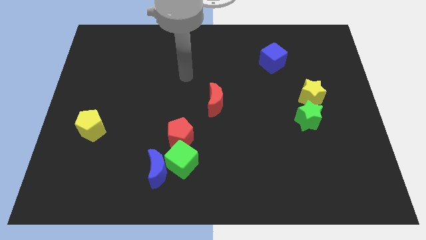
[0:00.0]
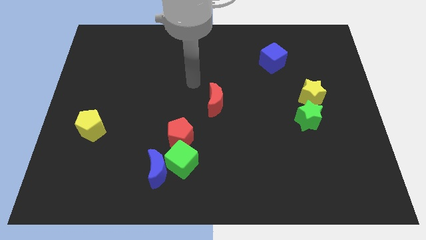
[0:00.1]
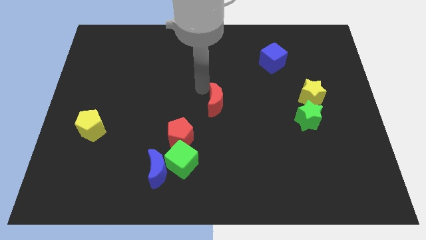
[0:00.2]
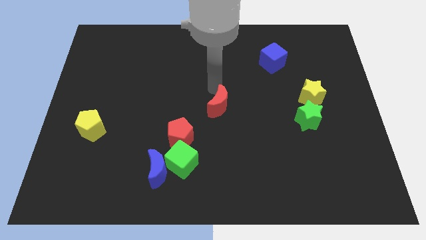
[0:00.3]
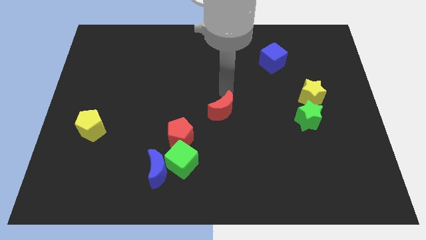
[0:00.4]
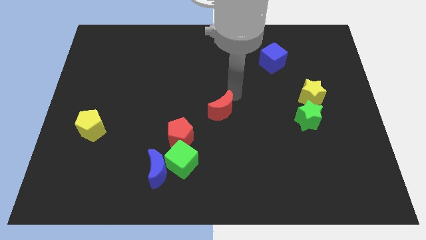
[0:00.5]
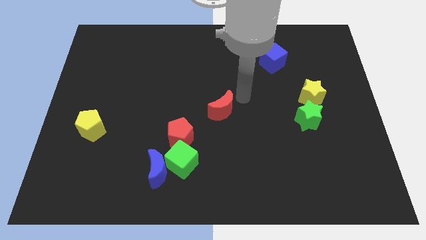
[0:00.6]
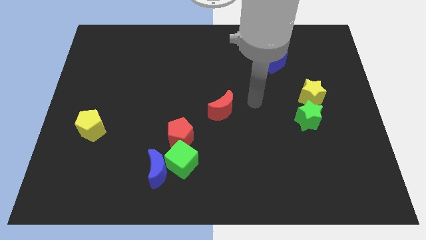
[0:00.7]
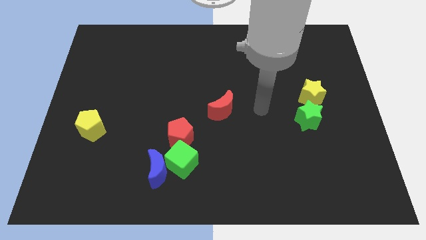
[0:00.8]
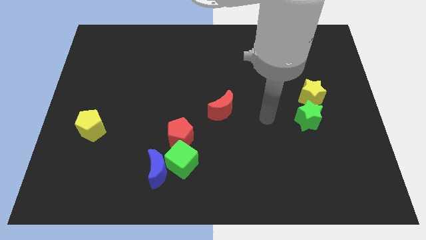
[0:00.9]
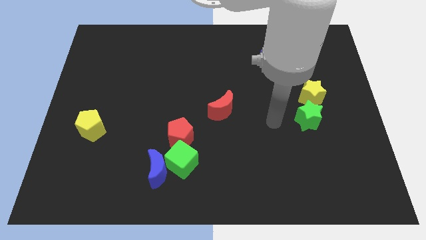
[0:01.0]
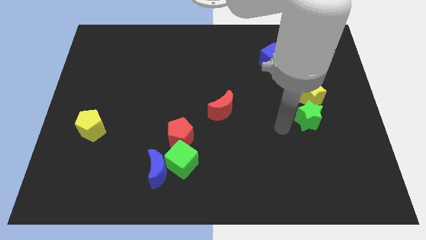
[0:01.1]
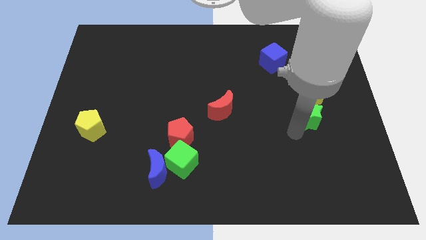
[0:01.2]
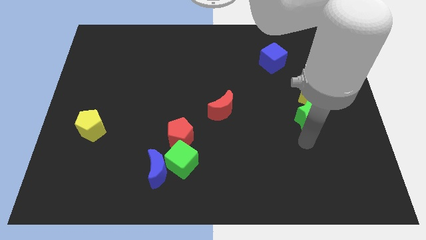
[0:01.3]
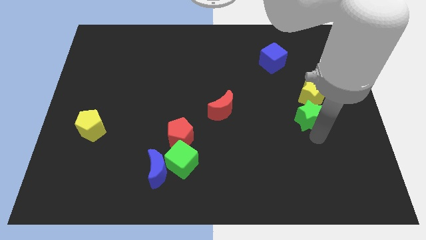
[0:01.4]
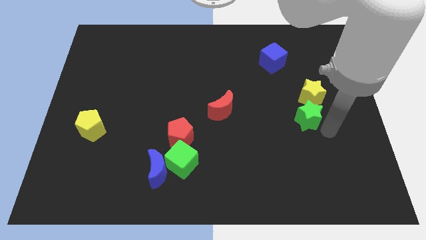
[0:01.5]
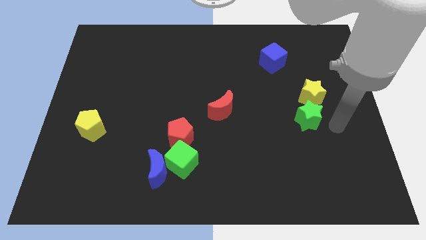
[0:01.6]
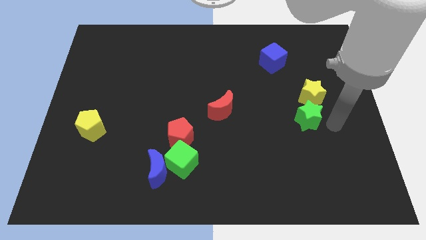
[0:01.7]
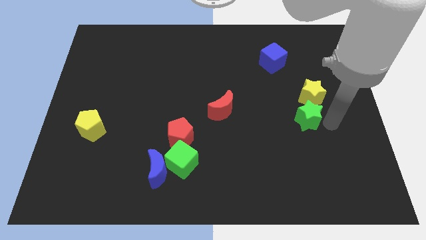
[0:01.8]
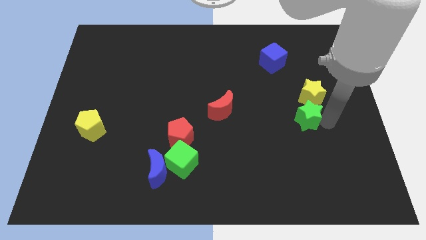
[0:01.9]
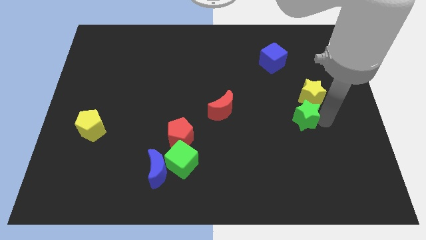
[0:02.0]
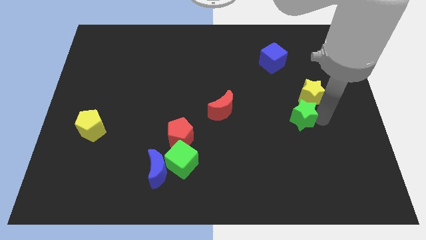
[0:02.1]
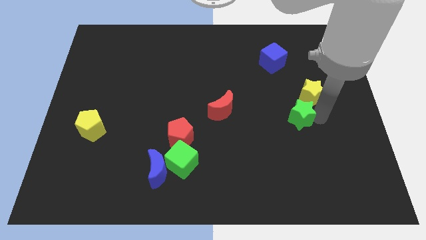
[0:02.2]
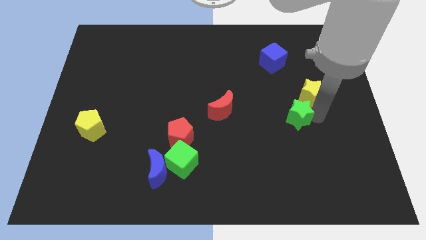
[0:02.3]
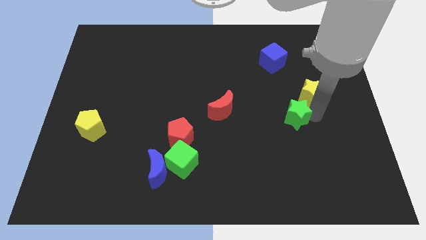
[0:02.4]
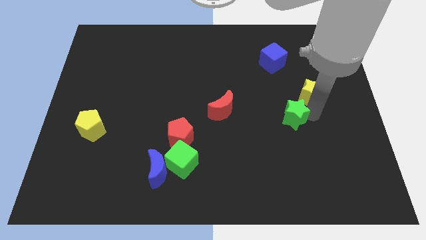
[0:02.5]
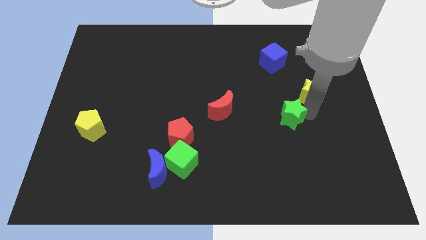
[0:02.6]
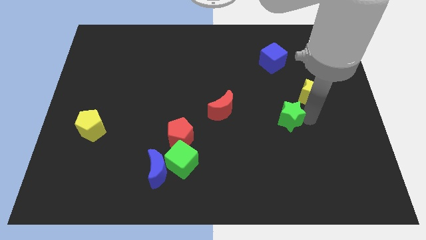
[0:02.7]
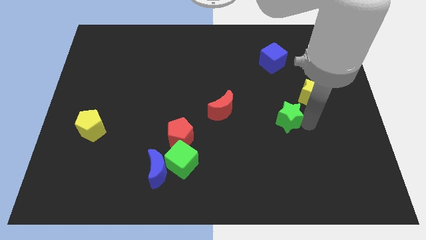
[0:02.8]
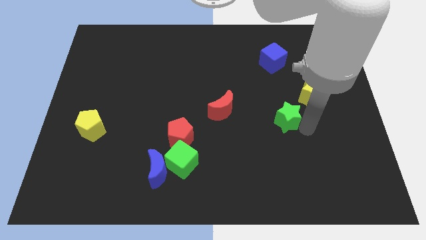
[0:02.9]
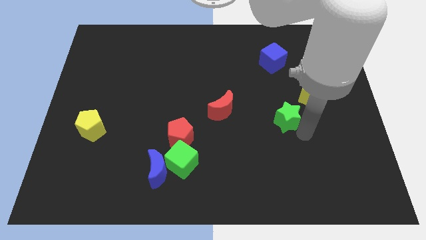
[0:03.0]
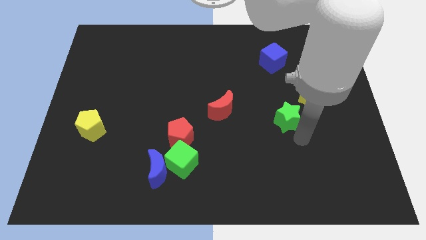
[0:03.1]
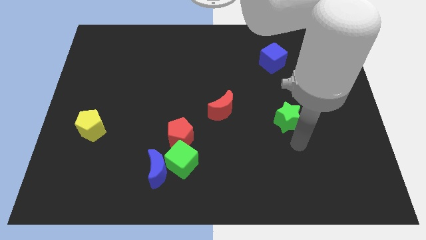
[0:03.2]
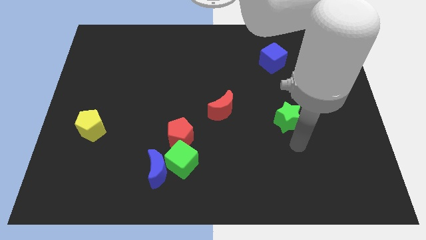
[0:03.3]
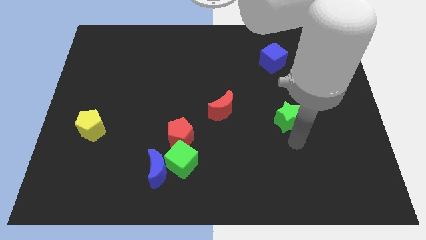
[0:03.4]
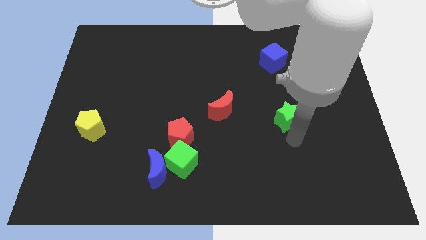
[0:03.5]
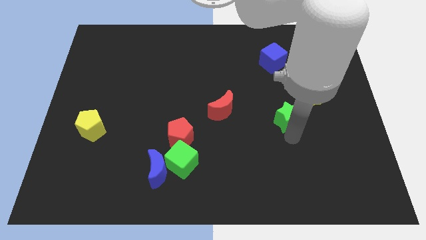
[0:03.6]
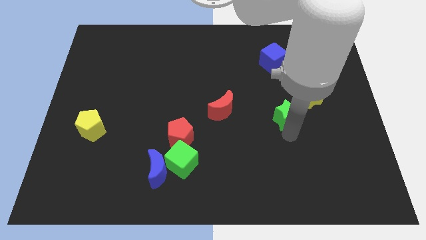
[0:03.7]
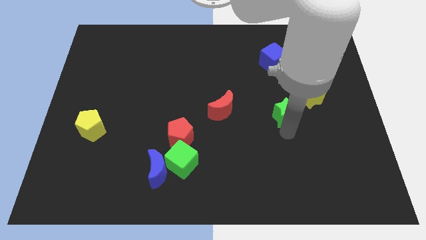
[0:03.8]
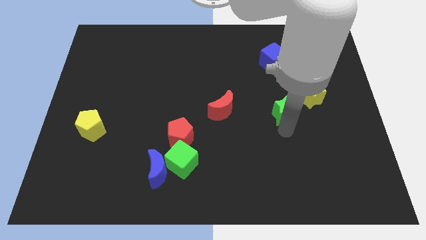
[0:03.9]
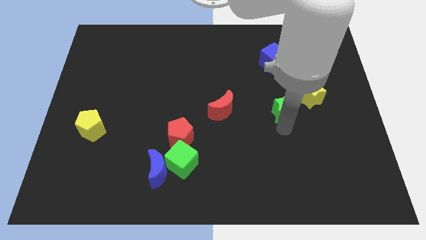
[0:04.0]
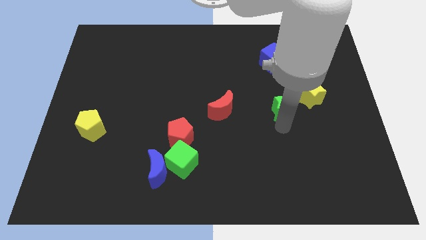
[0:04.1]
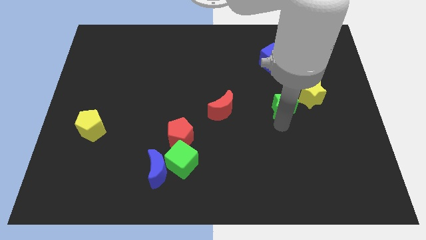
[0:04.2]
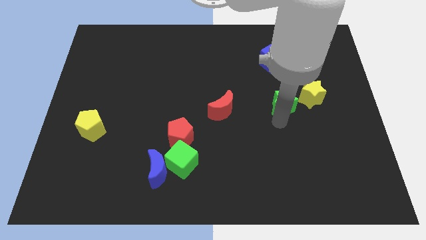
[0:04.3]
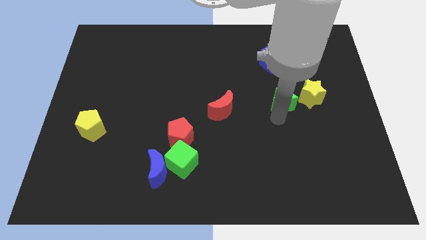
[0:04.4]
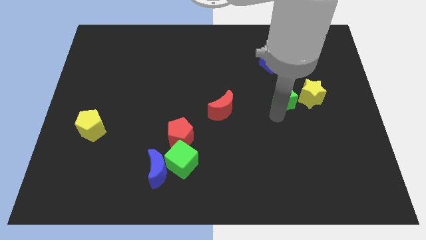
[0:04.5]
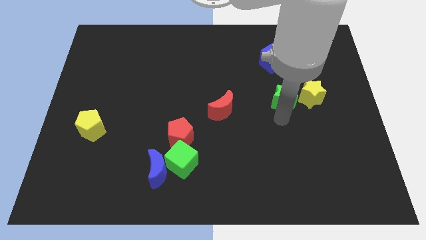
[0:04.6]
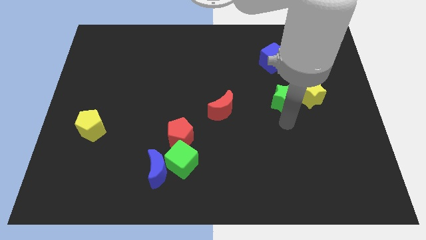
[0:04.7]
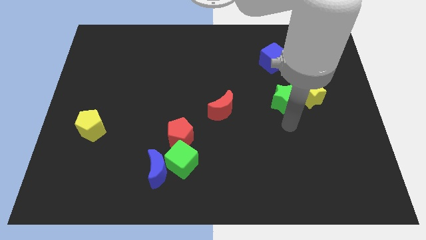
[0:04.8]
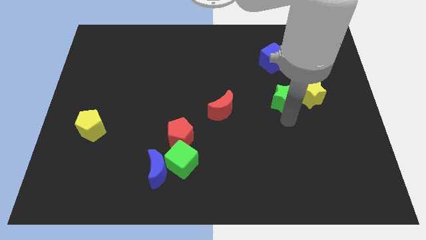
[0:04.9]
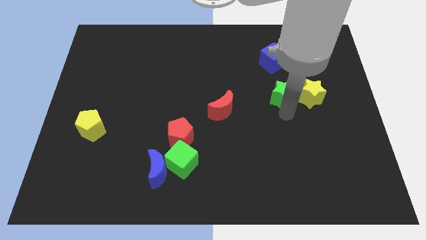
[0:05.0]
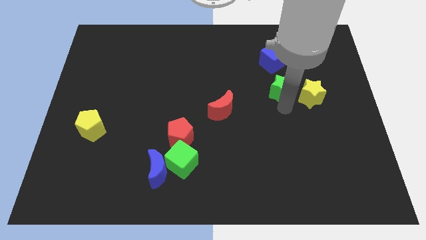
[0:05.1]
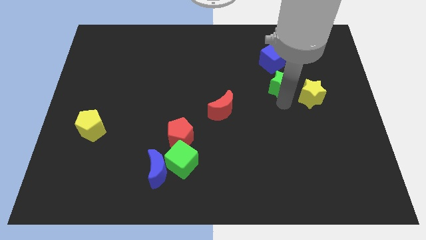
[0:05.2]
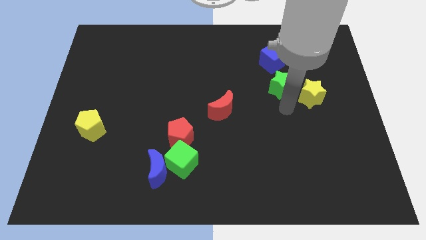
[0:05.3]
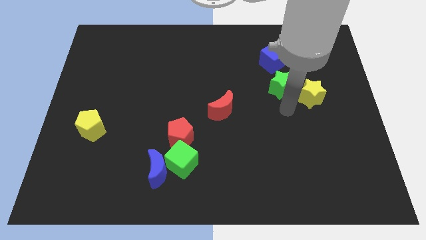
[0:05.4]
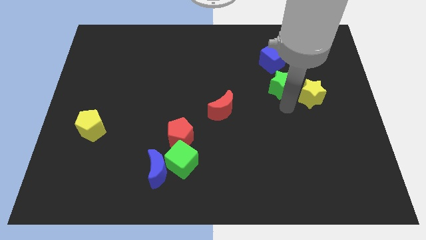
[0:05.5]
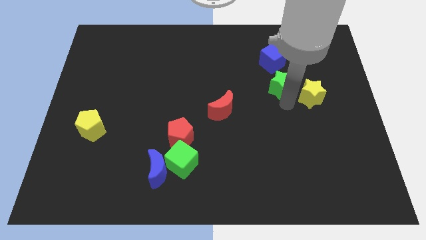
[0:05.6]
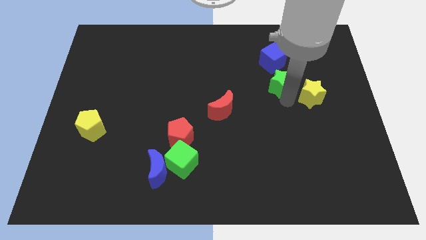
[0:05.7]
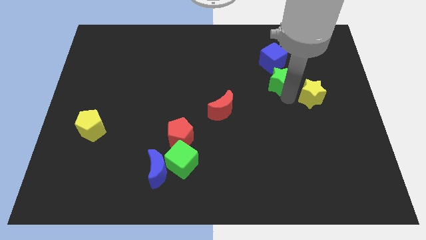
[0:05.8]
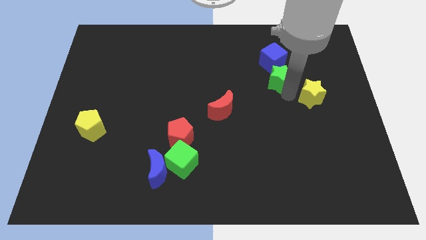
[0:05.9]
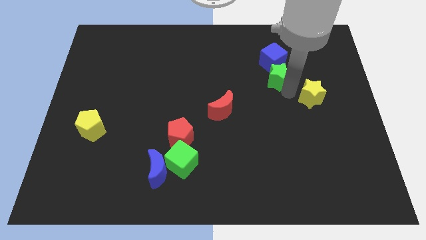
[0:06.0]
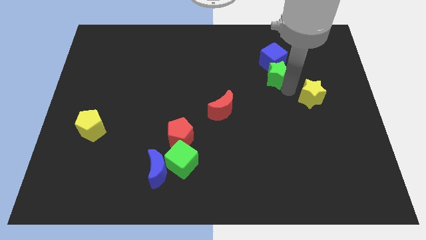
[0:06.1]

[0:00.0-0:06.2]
move the green star to the blue cube

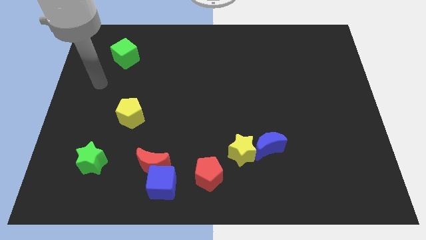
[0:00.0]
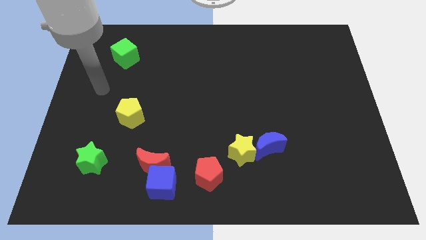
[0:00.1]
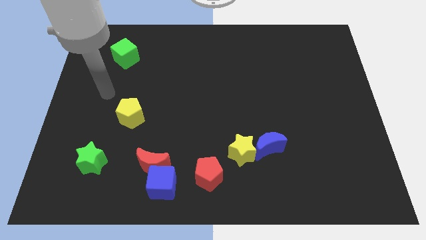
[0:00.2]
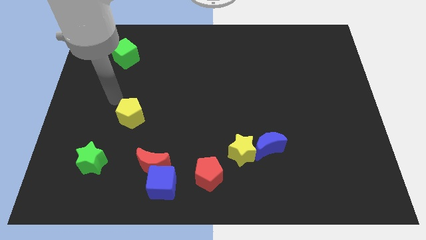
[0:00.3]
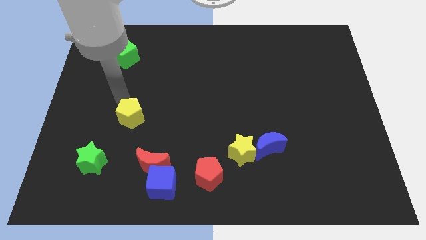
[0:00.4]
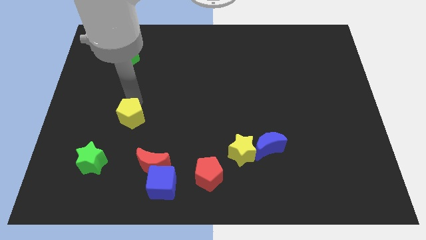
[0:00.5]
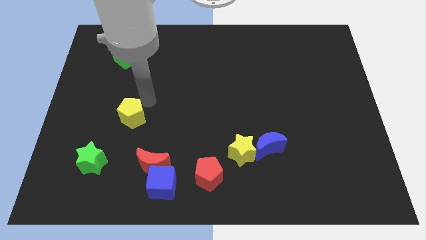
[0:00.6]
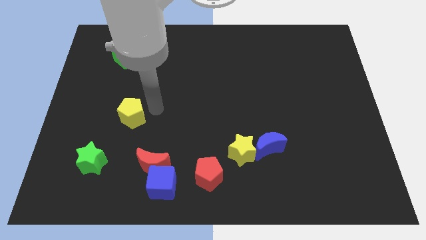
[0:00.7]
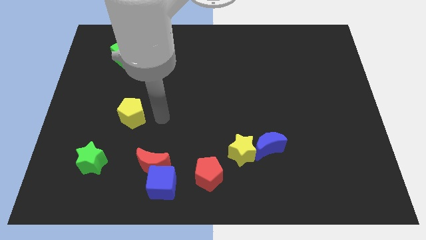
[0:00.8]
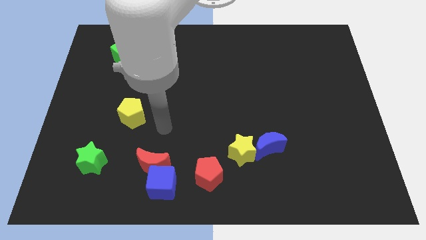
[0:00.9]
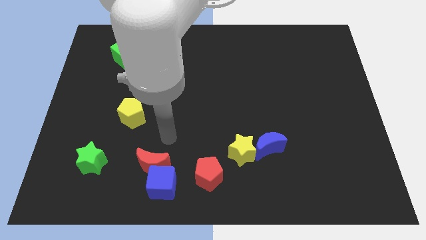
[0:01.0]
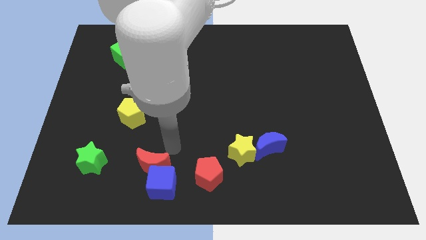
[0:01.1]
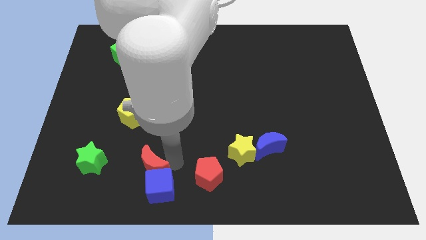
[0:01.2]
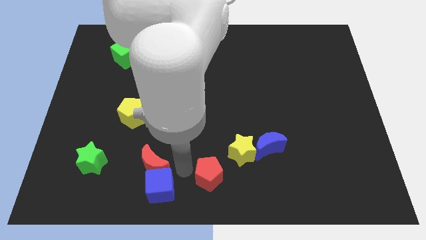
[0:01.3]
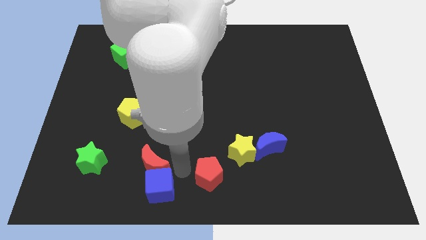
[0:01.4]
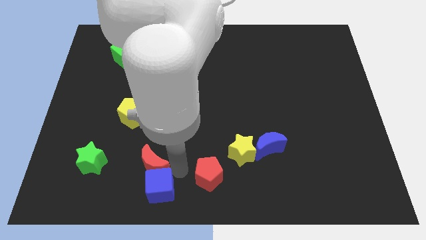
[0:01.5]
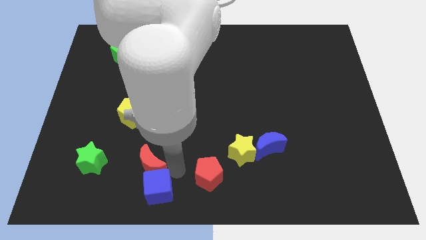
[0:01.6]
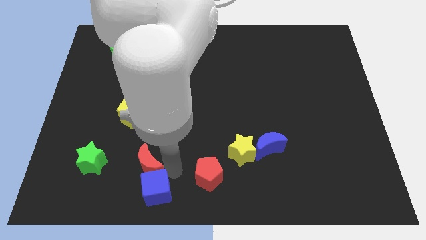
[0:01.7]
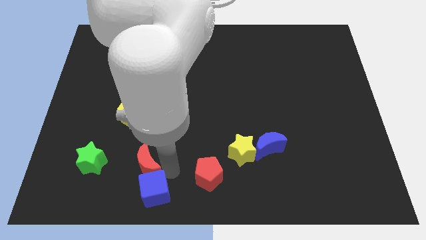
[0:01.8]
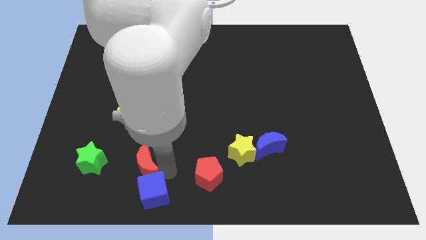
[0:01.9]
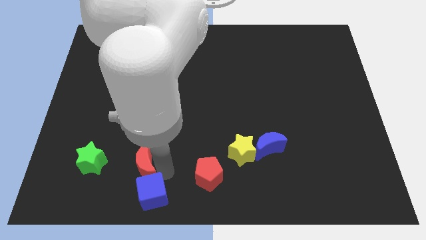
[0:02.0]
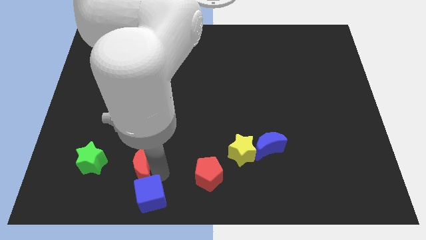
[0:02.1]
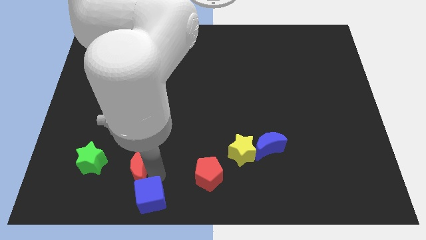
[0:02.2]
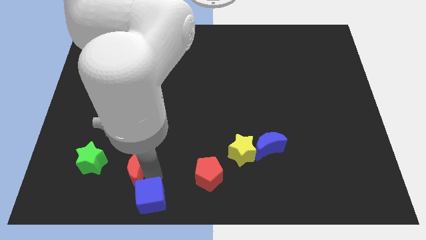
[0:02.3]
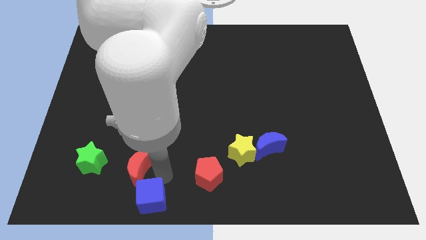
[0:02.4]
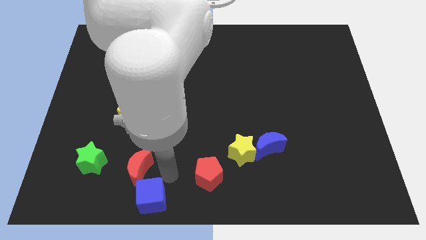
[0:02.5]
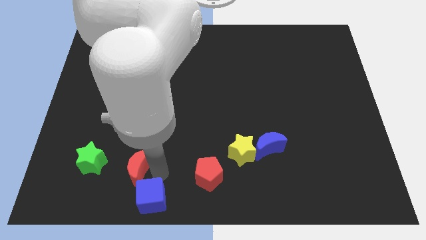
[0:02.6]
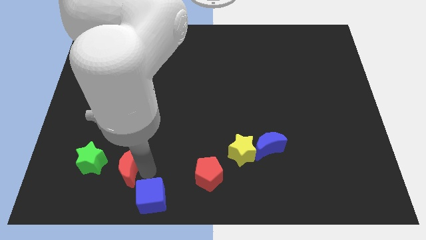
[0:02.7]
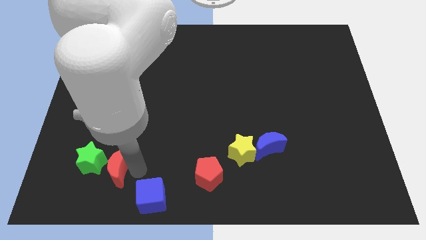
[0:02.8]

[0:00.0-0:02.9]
push the red moon to the green star
